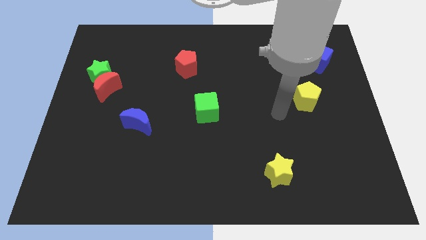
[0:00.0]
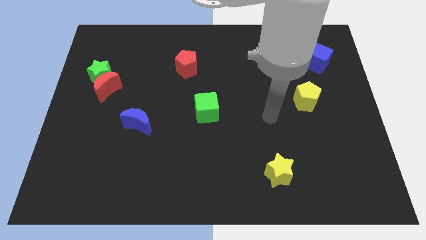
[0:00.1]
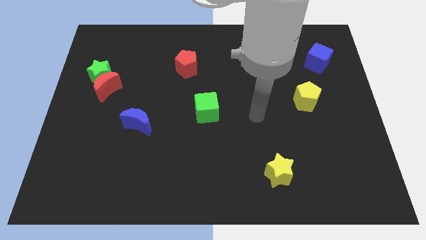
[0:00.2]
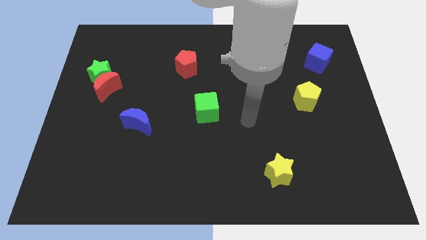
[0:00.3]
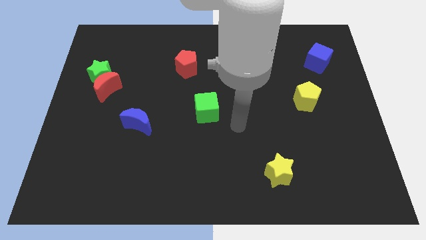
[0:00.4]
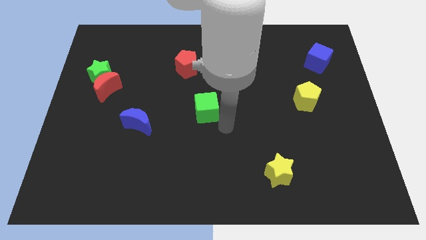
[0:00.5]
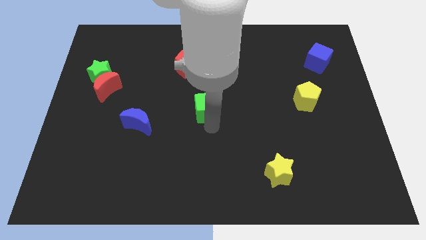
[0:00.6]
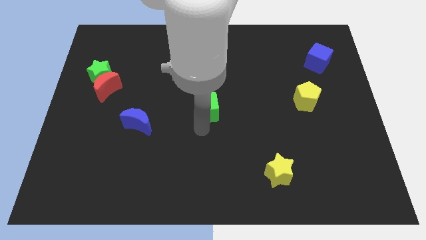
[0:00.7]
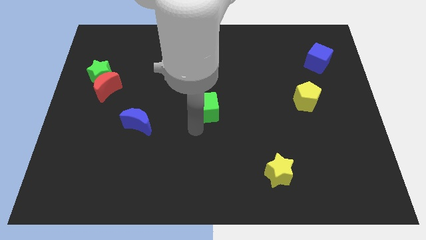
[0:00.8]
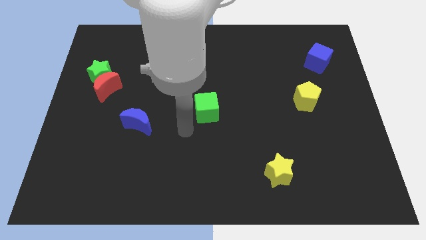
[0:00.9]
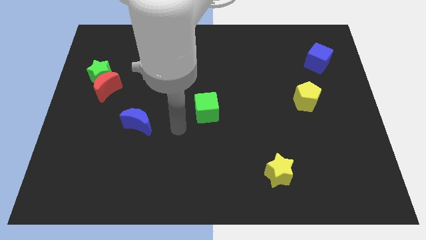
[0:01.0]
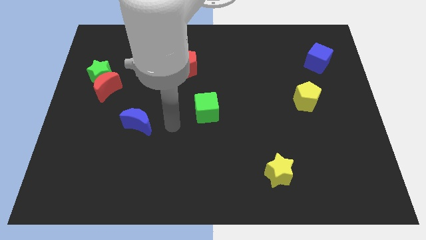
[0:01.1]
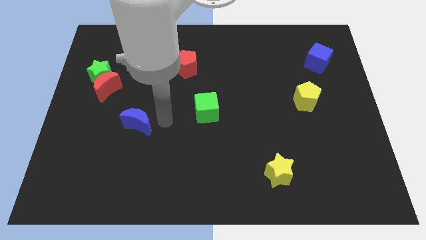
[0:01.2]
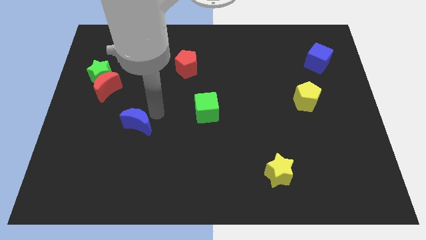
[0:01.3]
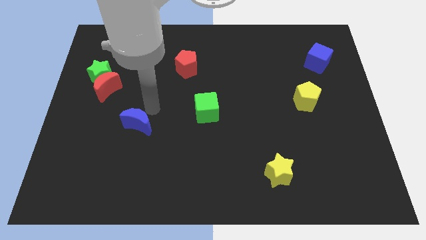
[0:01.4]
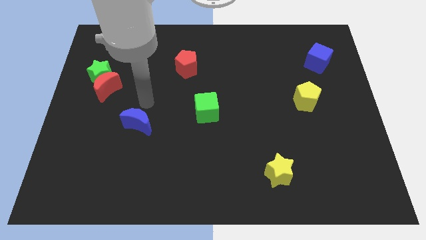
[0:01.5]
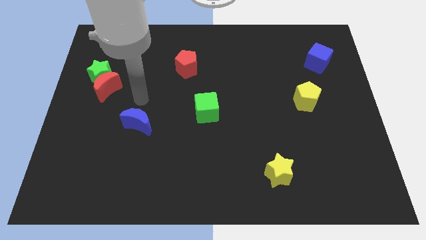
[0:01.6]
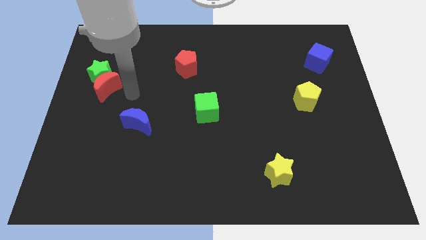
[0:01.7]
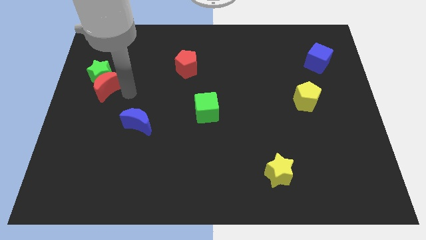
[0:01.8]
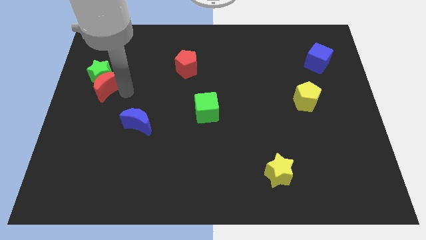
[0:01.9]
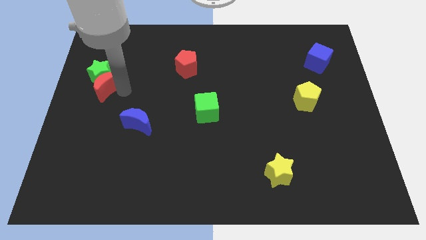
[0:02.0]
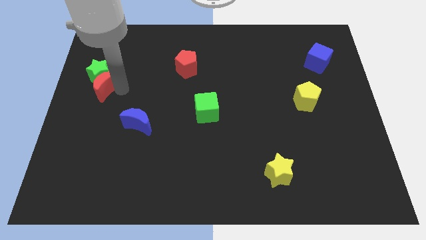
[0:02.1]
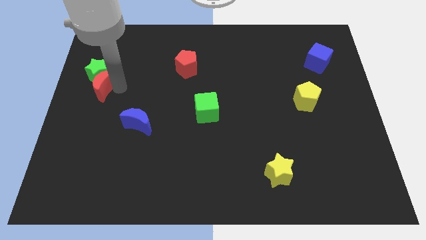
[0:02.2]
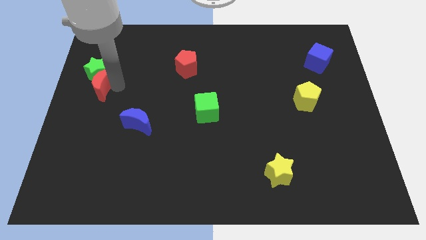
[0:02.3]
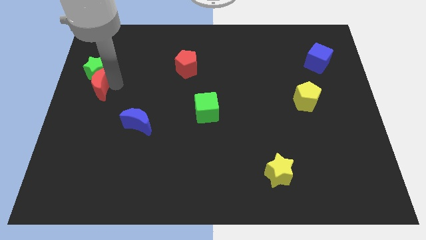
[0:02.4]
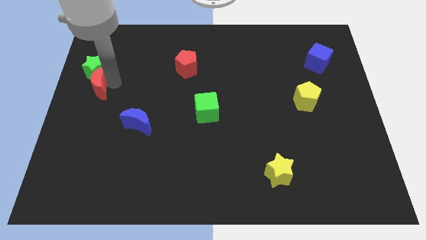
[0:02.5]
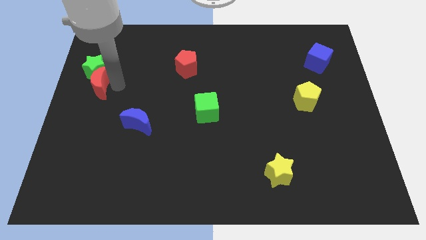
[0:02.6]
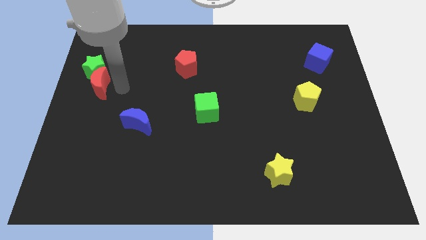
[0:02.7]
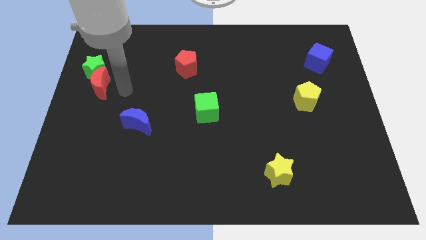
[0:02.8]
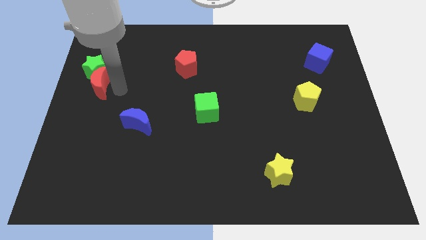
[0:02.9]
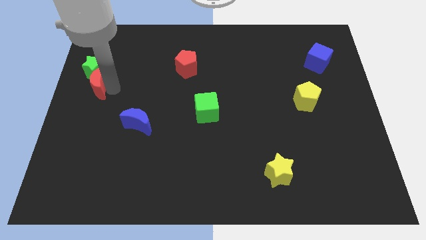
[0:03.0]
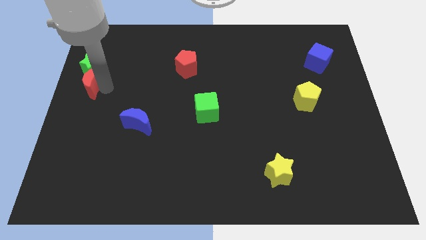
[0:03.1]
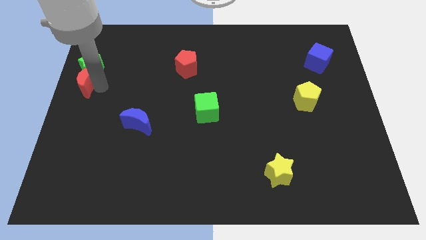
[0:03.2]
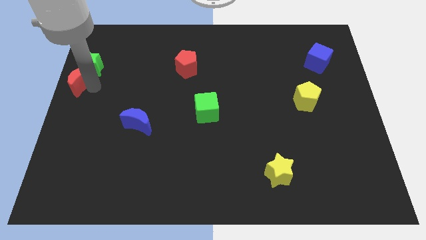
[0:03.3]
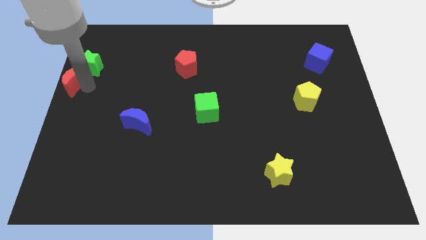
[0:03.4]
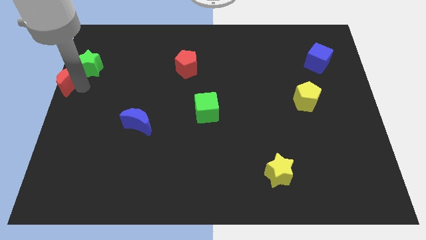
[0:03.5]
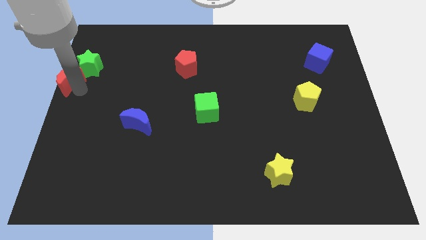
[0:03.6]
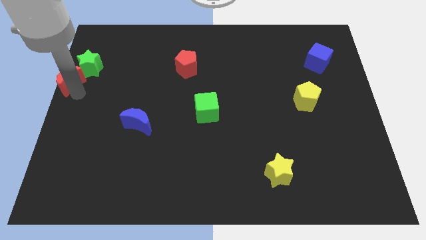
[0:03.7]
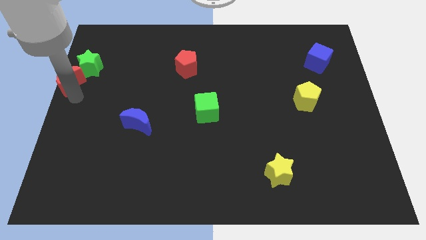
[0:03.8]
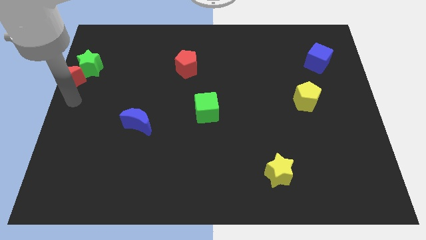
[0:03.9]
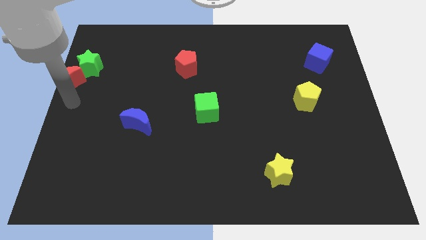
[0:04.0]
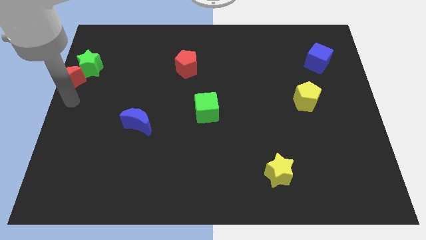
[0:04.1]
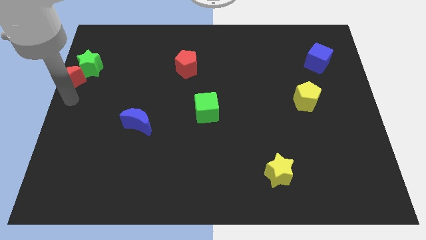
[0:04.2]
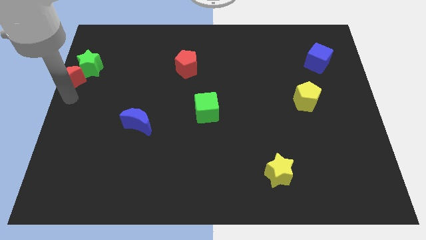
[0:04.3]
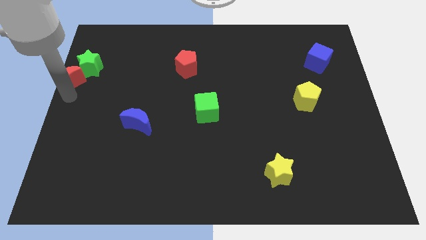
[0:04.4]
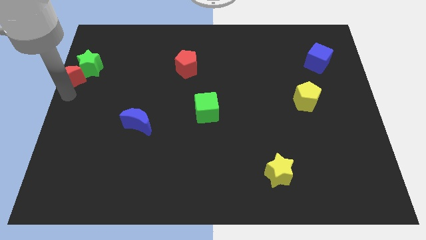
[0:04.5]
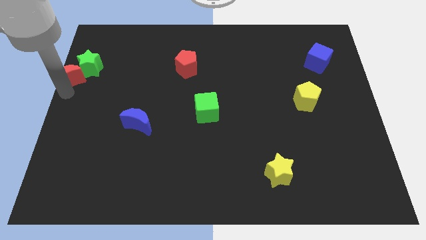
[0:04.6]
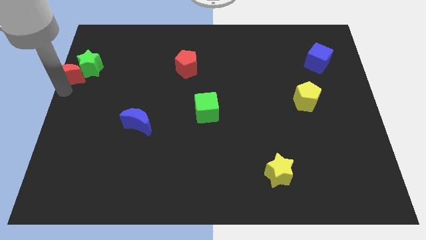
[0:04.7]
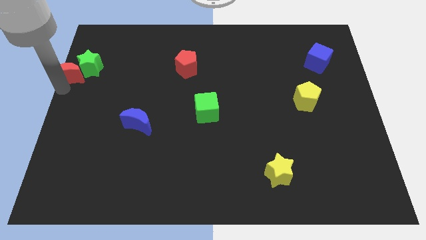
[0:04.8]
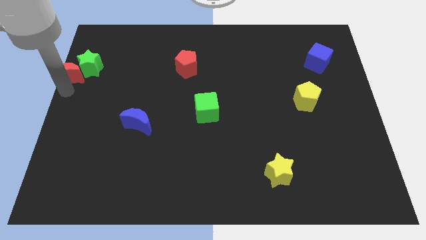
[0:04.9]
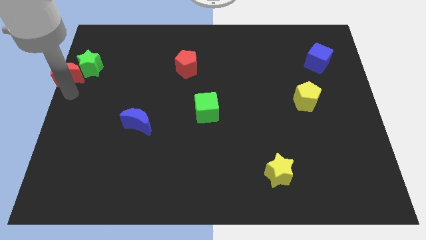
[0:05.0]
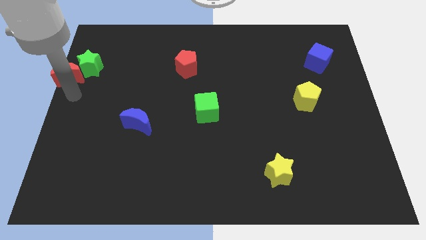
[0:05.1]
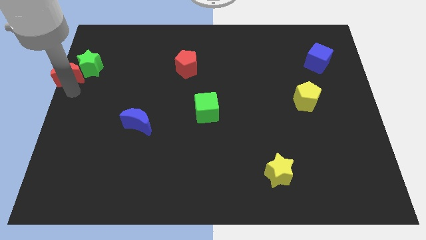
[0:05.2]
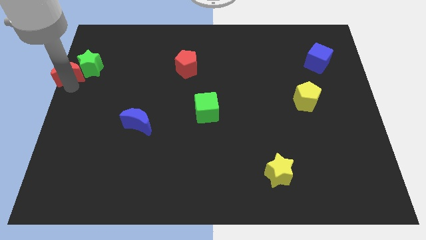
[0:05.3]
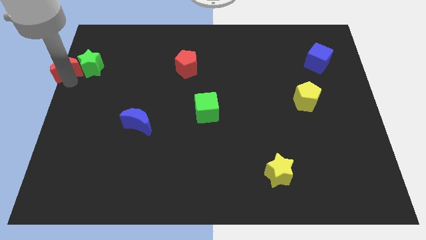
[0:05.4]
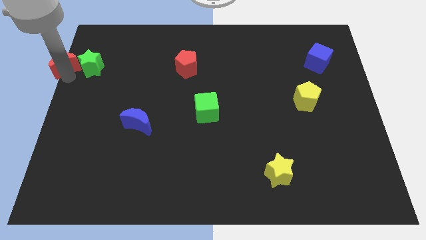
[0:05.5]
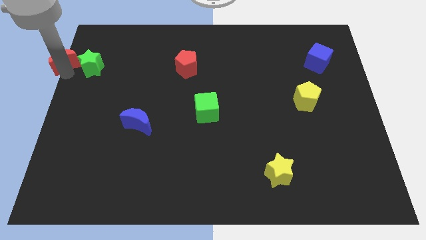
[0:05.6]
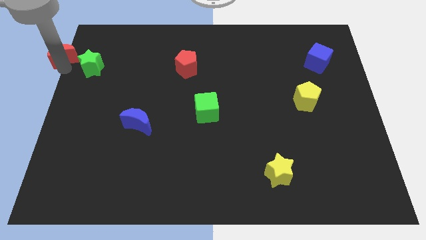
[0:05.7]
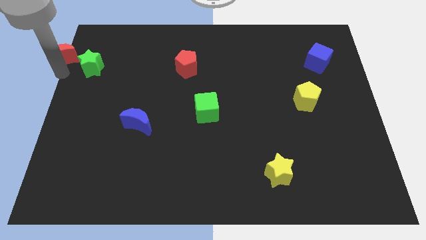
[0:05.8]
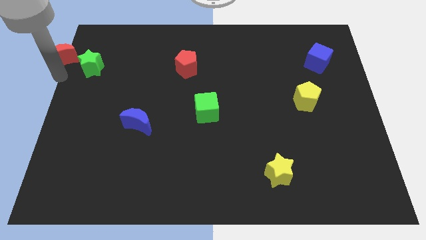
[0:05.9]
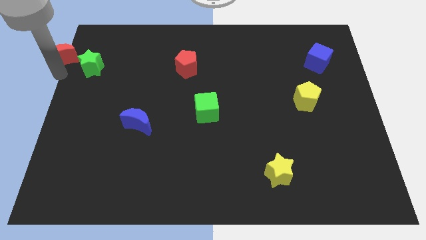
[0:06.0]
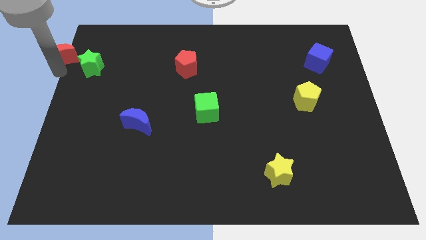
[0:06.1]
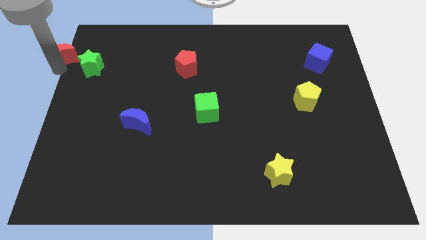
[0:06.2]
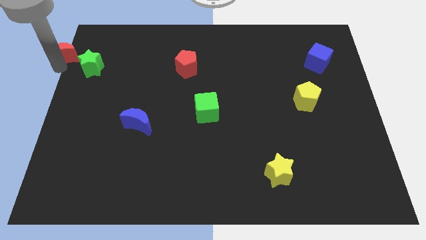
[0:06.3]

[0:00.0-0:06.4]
move the red moon to the top left corner
